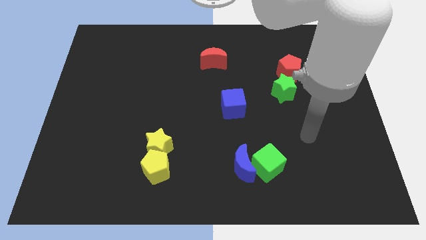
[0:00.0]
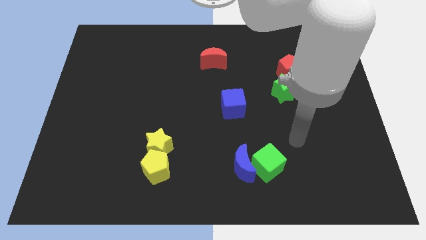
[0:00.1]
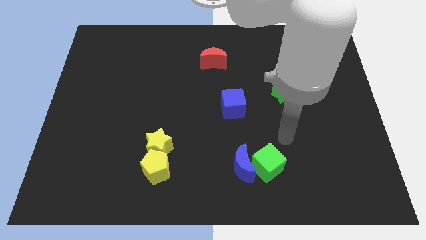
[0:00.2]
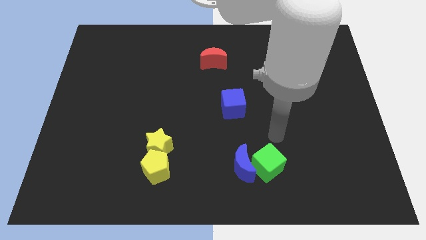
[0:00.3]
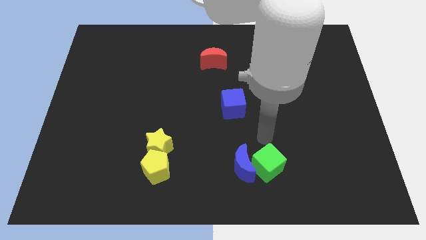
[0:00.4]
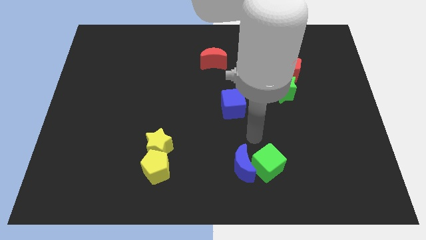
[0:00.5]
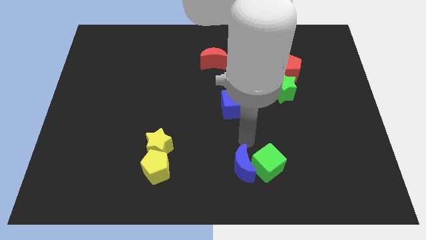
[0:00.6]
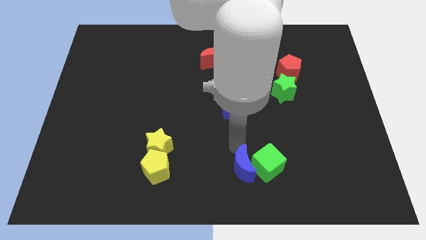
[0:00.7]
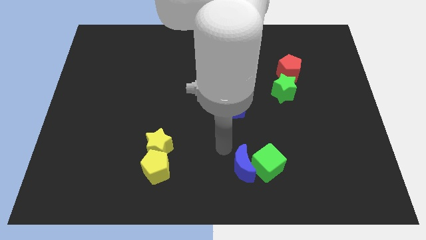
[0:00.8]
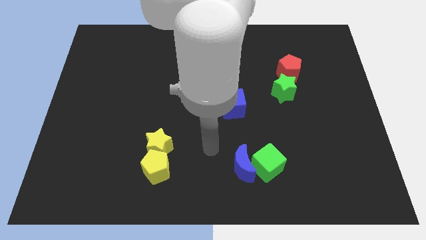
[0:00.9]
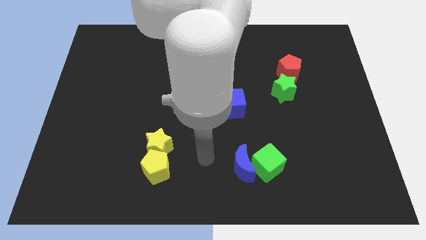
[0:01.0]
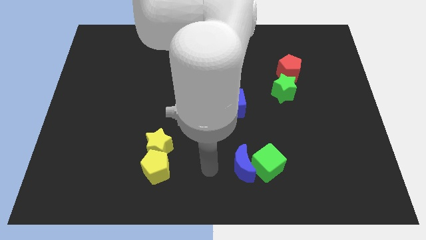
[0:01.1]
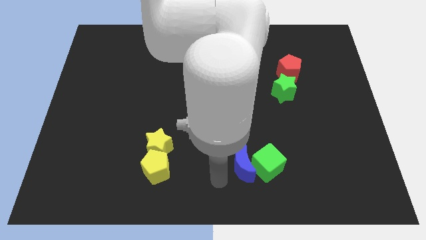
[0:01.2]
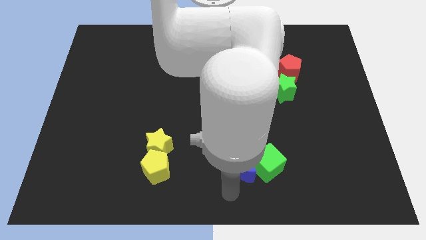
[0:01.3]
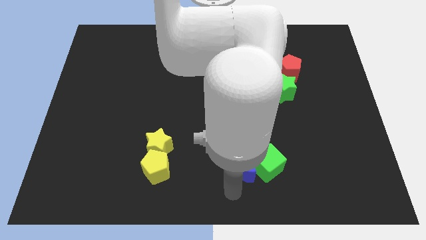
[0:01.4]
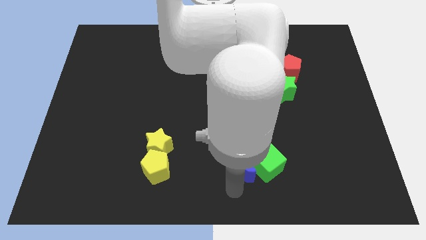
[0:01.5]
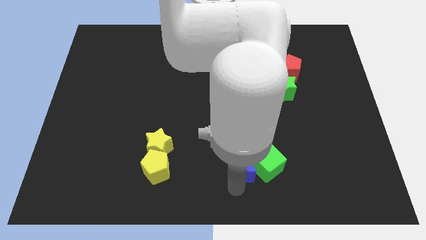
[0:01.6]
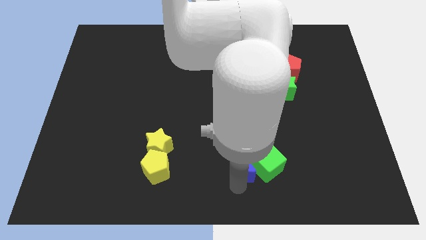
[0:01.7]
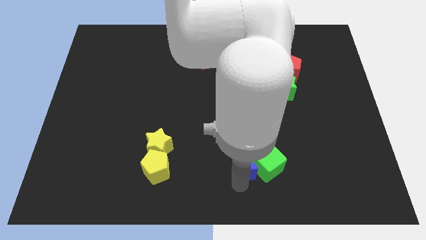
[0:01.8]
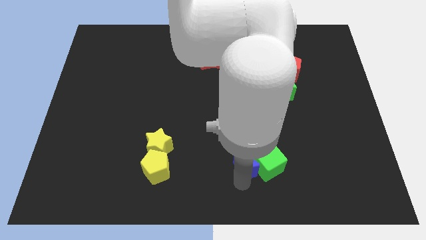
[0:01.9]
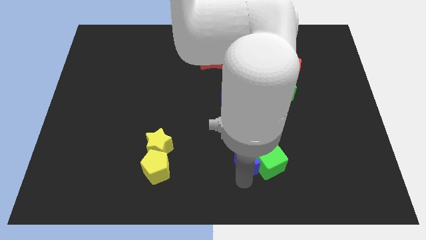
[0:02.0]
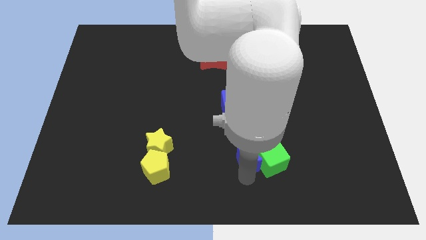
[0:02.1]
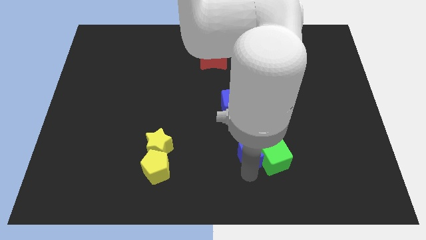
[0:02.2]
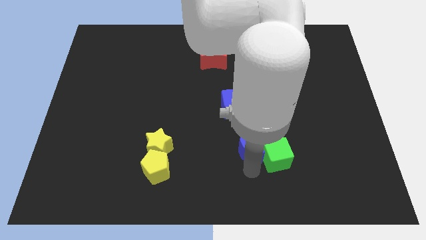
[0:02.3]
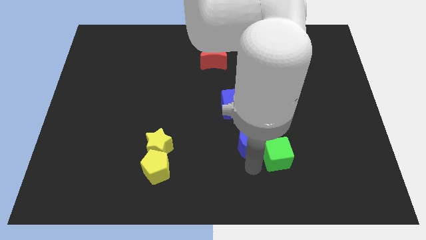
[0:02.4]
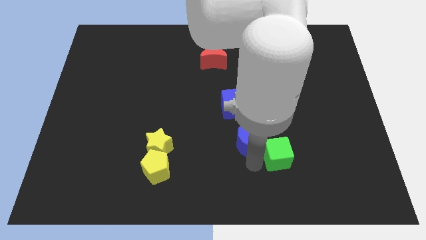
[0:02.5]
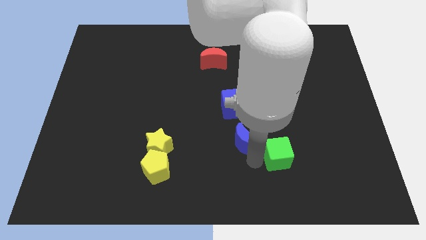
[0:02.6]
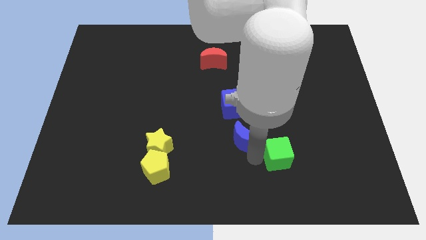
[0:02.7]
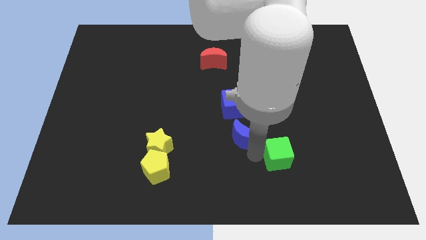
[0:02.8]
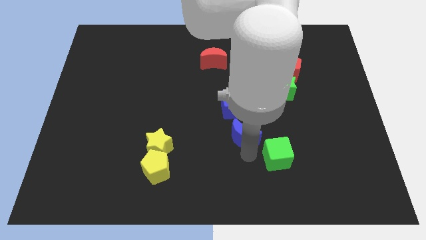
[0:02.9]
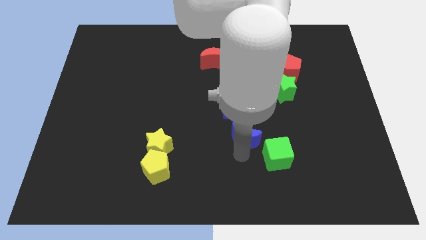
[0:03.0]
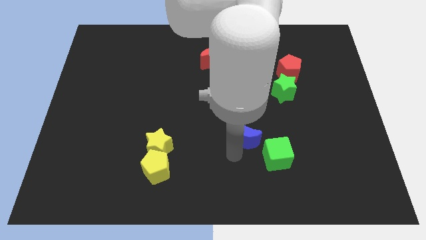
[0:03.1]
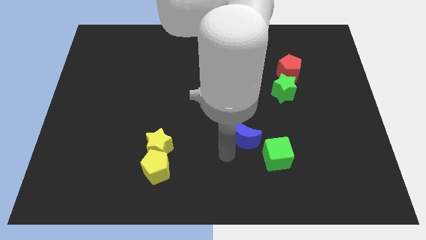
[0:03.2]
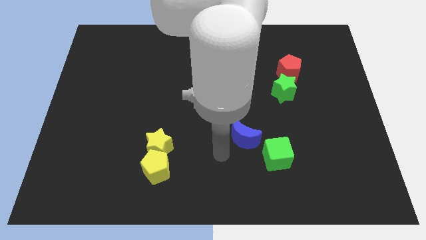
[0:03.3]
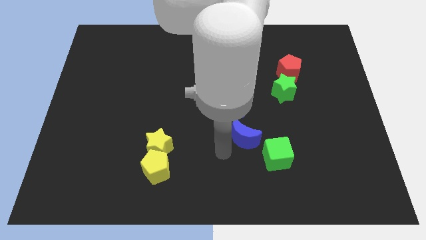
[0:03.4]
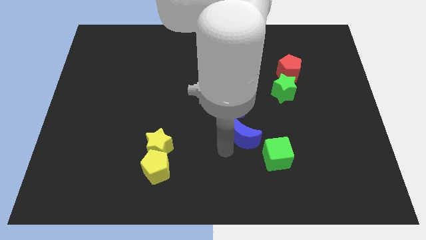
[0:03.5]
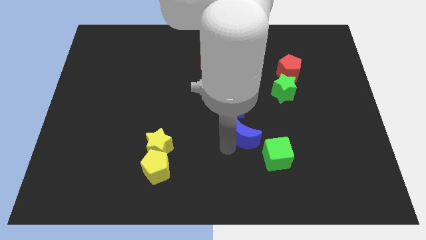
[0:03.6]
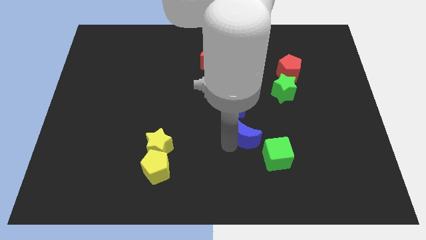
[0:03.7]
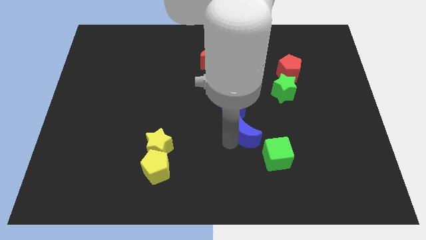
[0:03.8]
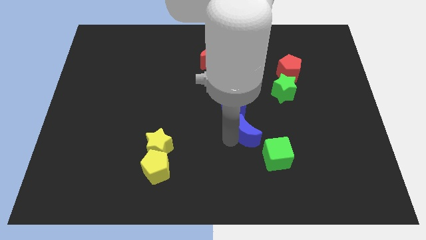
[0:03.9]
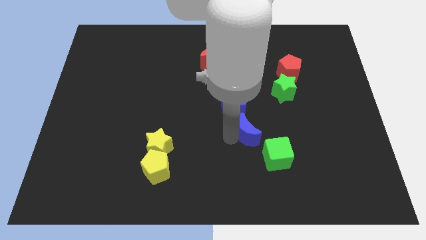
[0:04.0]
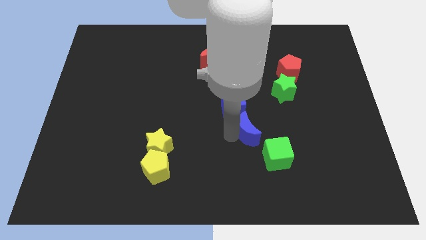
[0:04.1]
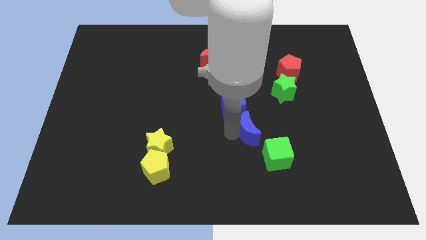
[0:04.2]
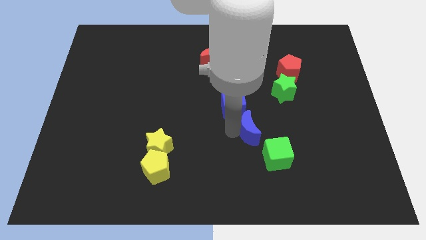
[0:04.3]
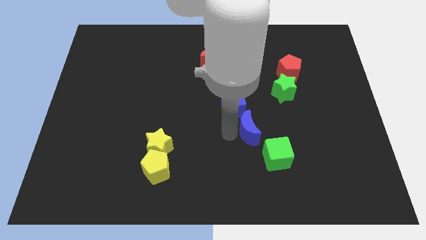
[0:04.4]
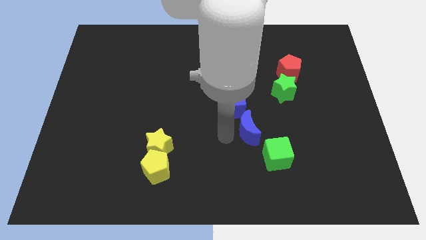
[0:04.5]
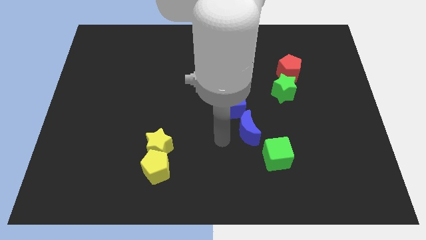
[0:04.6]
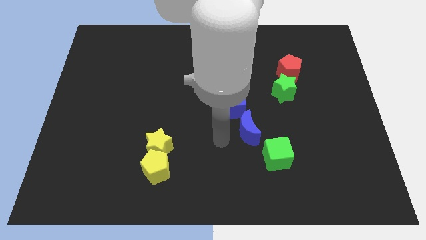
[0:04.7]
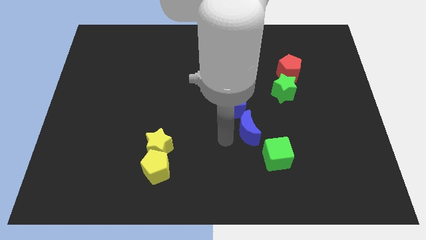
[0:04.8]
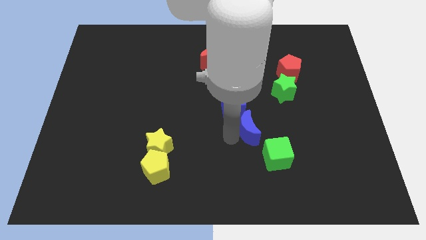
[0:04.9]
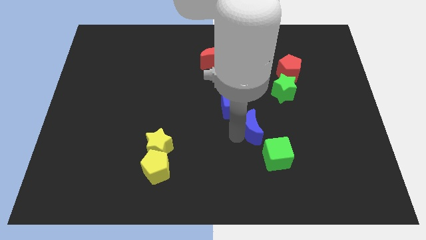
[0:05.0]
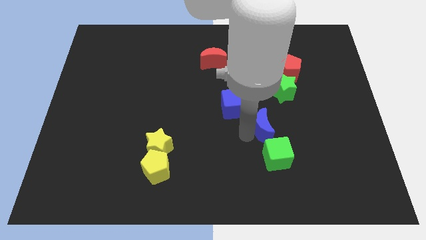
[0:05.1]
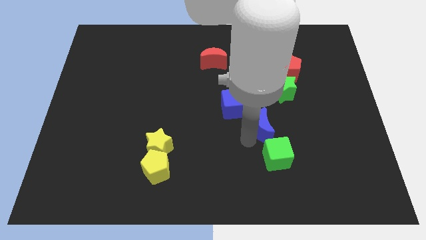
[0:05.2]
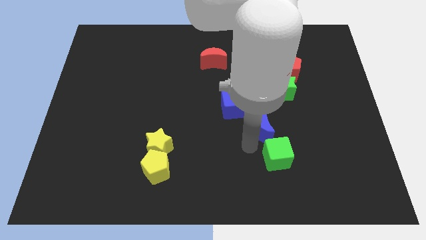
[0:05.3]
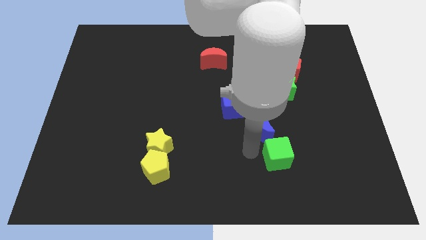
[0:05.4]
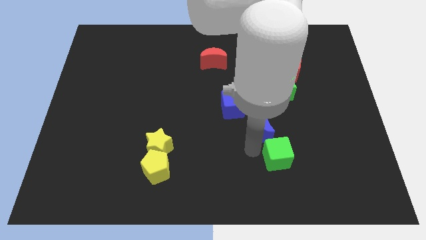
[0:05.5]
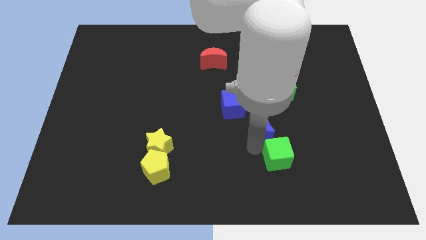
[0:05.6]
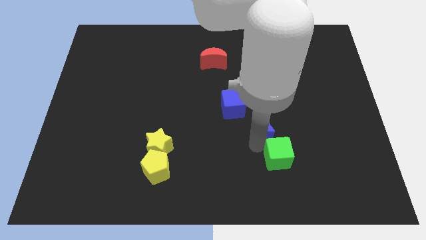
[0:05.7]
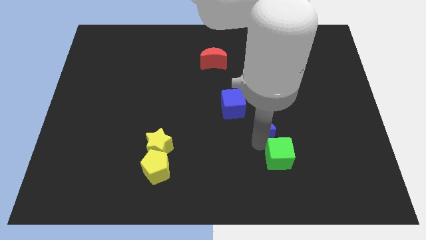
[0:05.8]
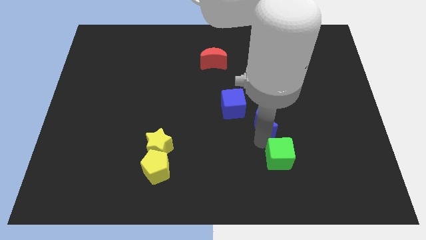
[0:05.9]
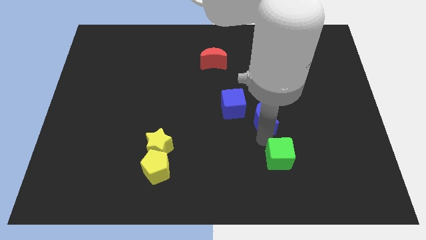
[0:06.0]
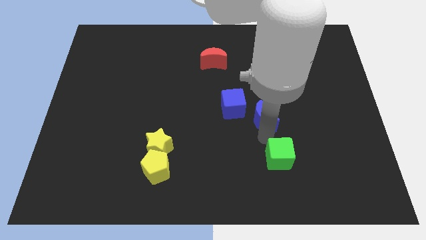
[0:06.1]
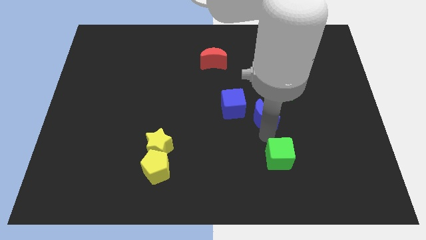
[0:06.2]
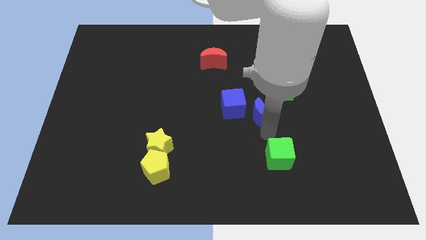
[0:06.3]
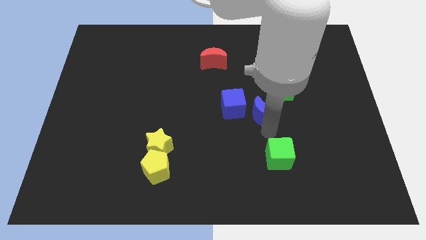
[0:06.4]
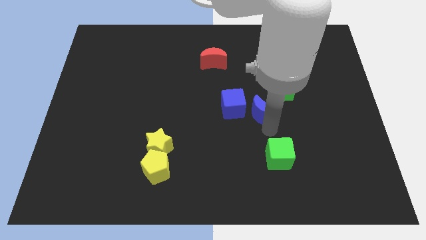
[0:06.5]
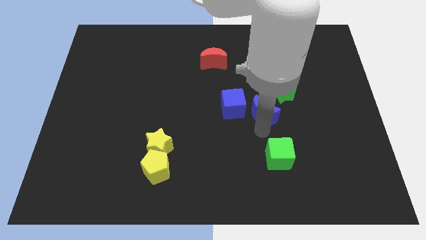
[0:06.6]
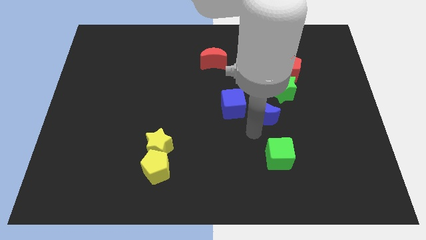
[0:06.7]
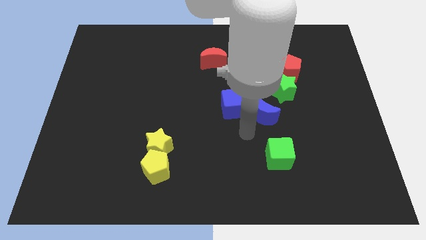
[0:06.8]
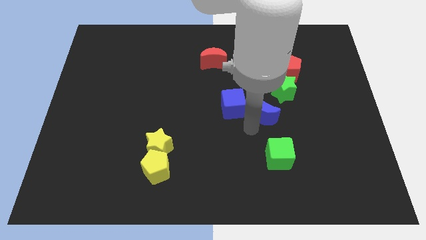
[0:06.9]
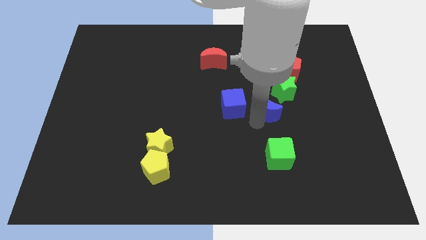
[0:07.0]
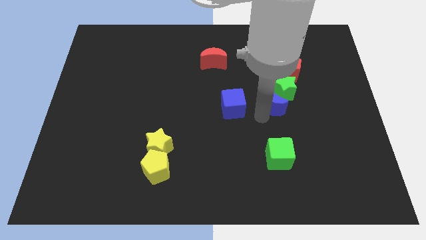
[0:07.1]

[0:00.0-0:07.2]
put the blue moon towards the green star

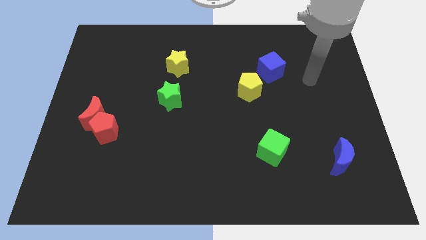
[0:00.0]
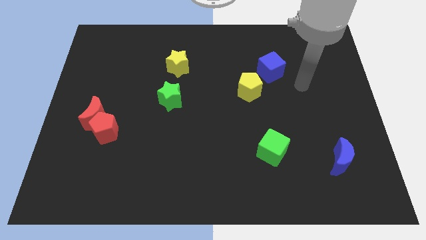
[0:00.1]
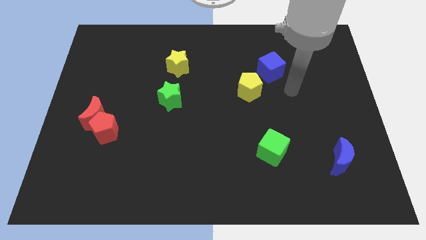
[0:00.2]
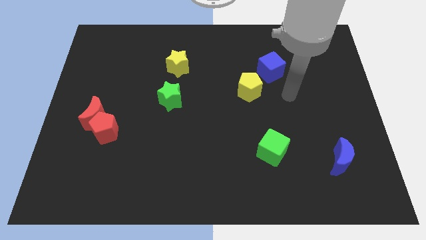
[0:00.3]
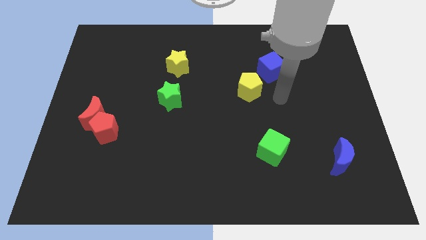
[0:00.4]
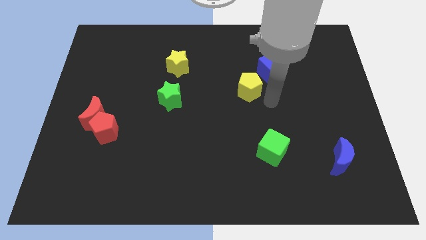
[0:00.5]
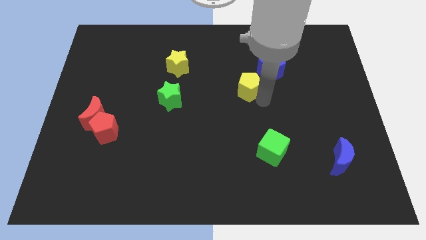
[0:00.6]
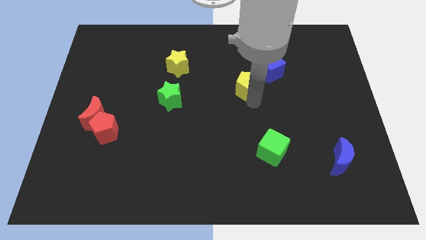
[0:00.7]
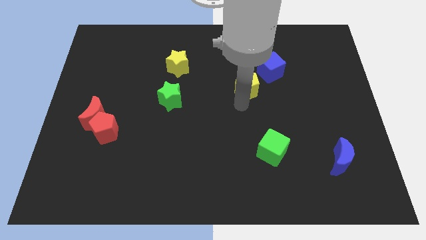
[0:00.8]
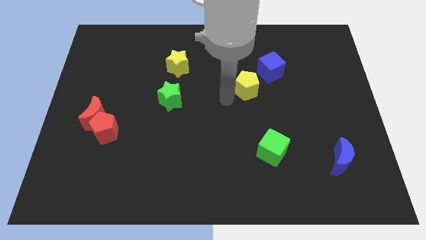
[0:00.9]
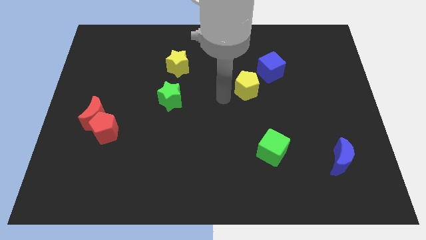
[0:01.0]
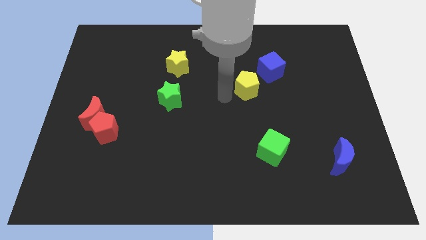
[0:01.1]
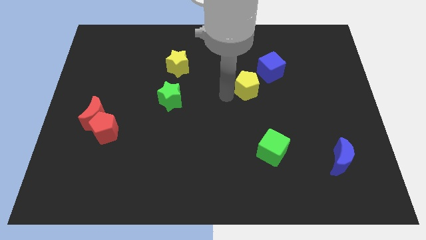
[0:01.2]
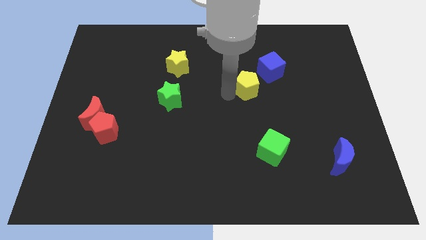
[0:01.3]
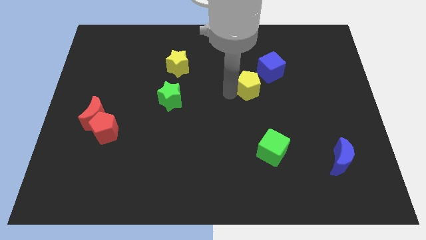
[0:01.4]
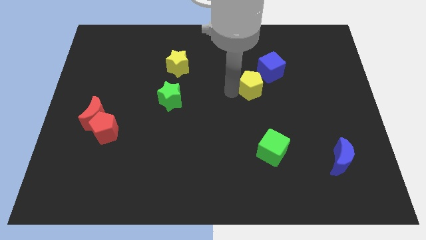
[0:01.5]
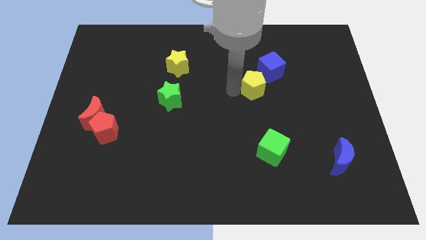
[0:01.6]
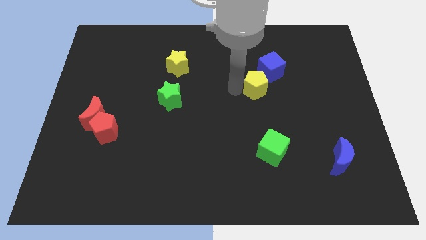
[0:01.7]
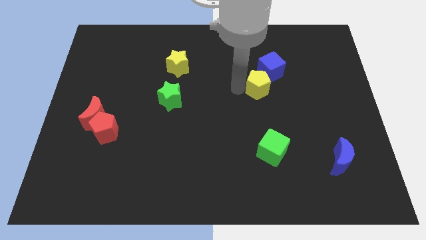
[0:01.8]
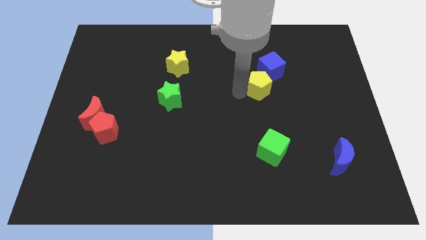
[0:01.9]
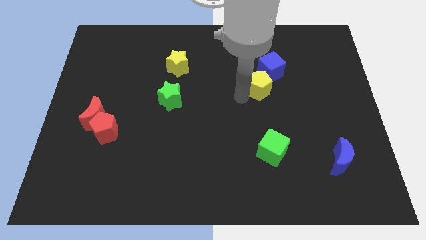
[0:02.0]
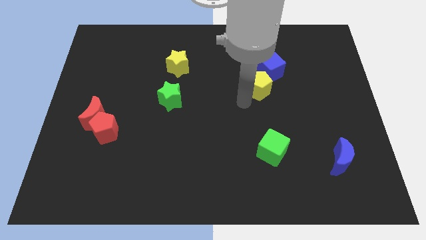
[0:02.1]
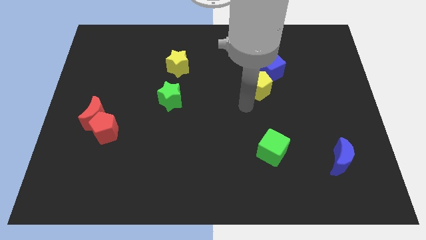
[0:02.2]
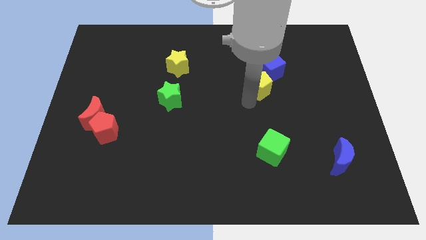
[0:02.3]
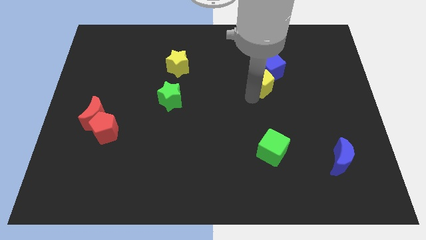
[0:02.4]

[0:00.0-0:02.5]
push the yellow pentagon towards the blue cube
